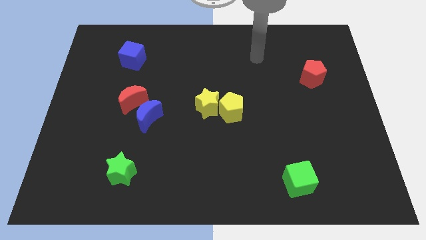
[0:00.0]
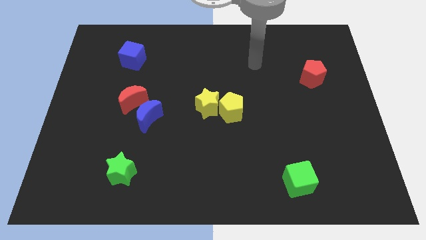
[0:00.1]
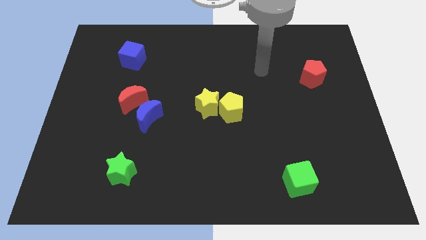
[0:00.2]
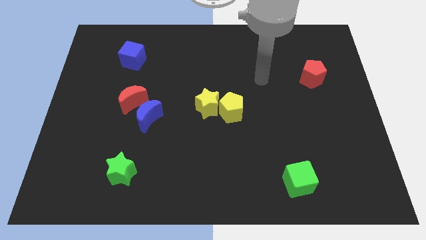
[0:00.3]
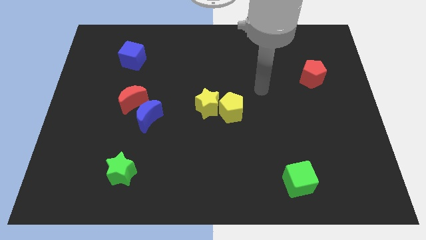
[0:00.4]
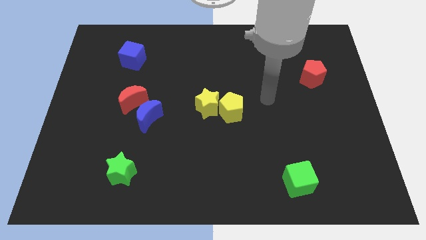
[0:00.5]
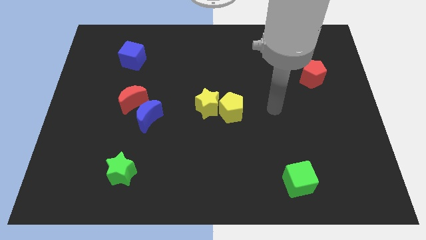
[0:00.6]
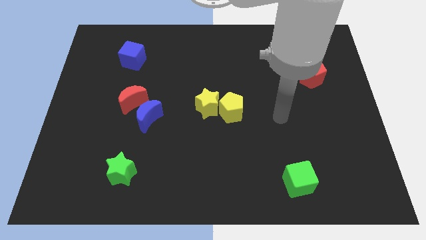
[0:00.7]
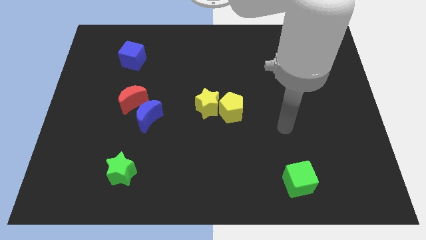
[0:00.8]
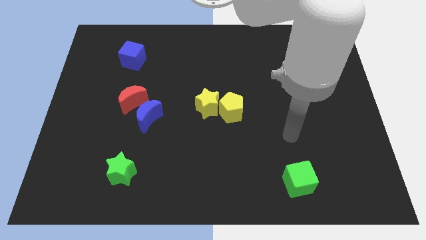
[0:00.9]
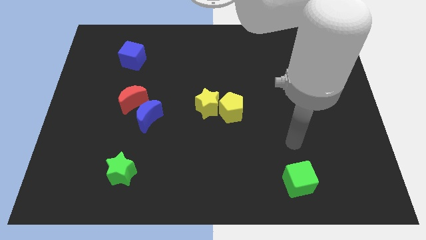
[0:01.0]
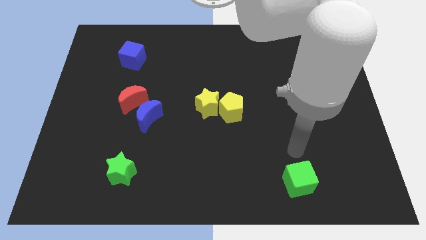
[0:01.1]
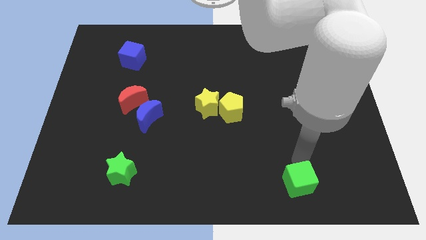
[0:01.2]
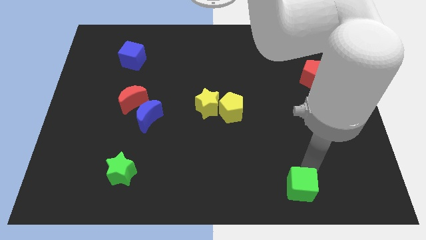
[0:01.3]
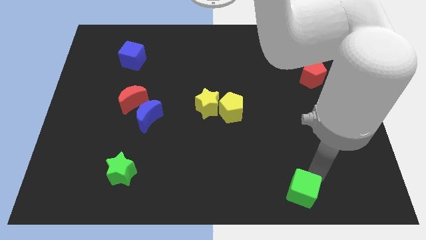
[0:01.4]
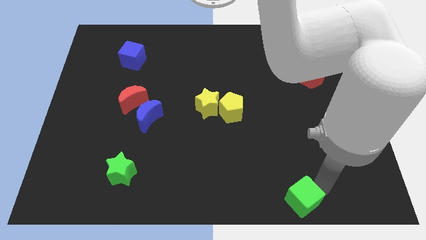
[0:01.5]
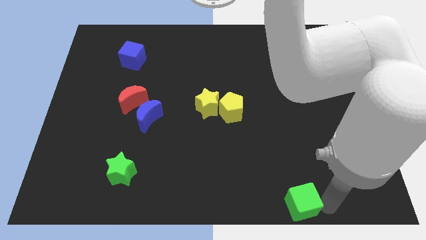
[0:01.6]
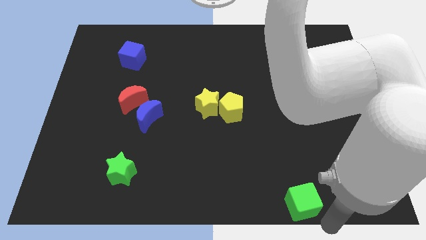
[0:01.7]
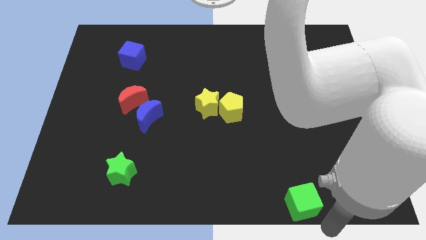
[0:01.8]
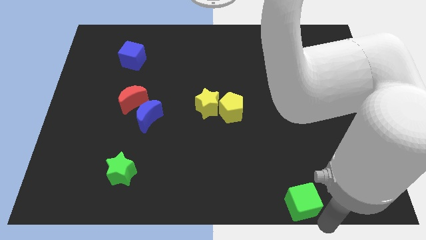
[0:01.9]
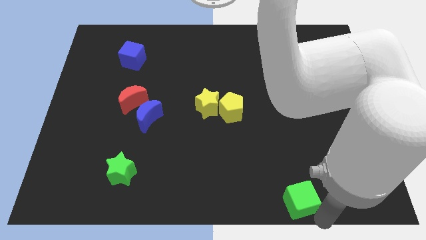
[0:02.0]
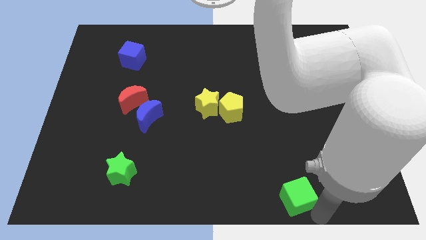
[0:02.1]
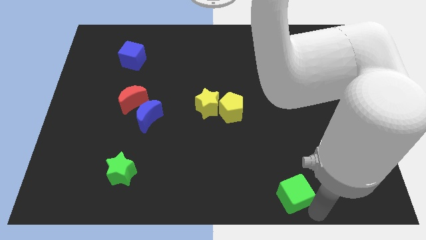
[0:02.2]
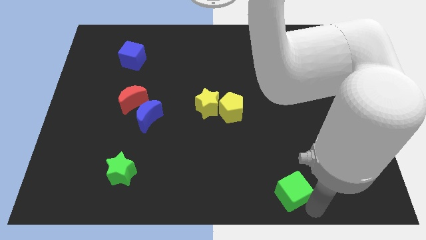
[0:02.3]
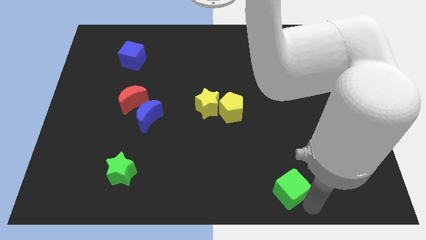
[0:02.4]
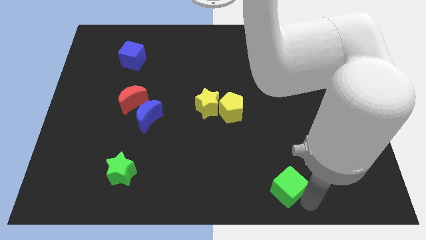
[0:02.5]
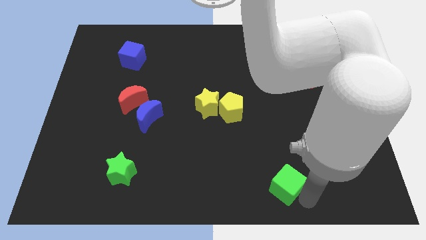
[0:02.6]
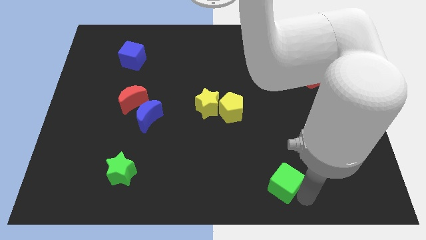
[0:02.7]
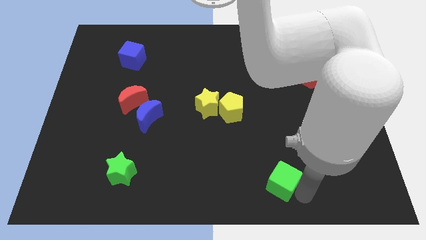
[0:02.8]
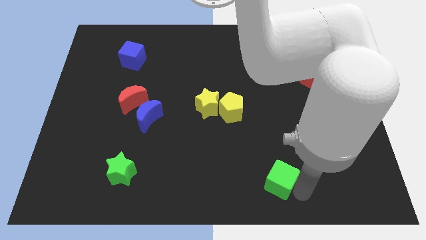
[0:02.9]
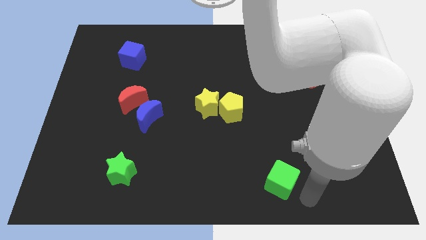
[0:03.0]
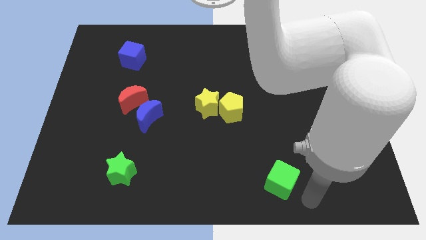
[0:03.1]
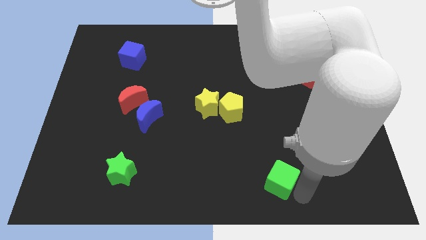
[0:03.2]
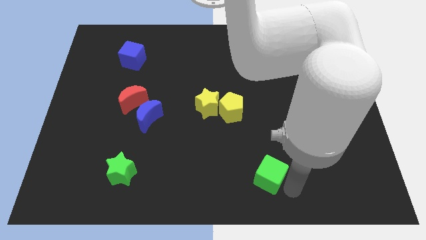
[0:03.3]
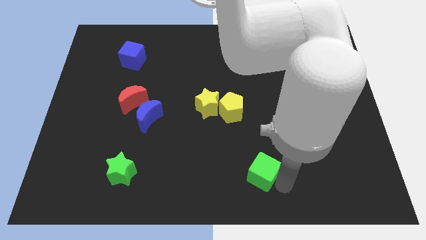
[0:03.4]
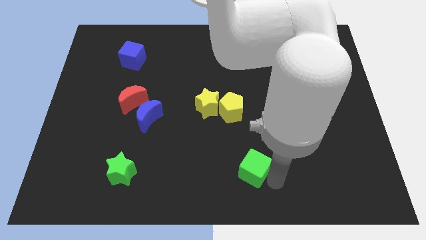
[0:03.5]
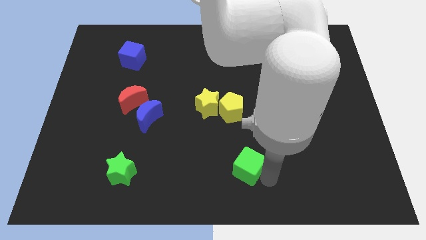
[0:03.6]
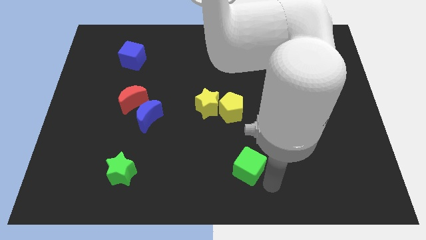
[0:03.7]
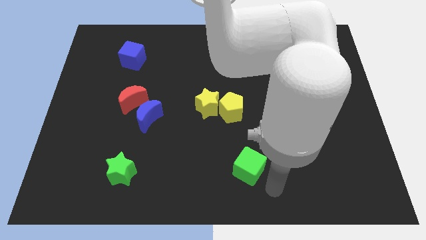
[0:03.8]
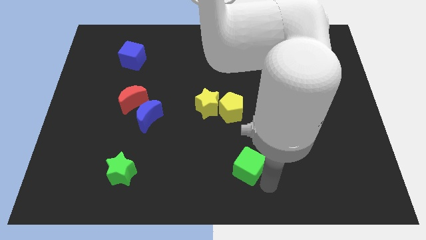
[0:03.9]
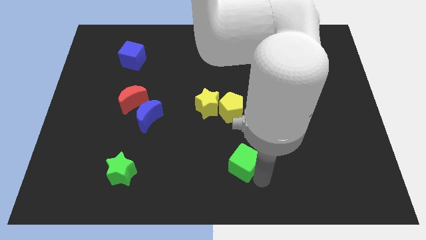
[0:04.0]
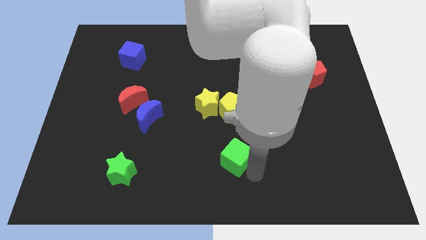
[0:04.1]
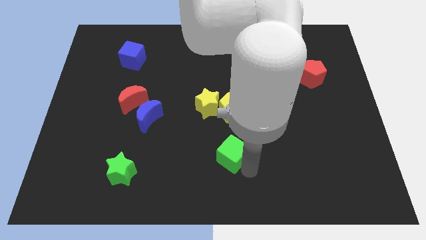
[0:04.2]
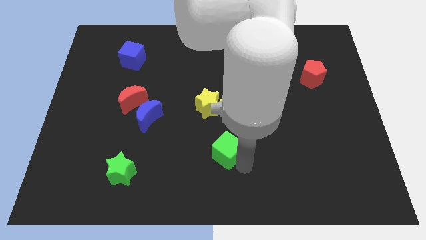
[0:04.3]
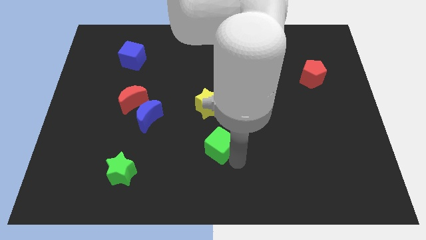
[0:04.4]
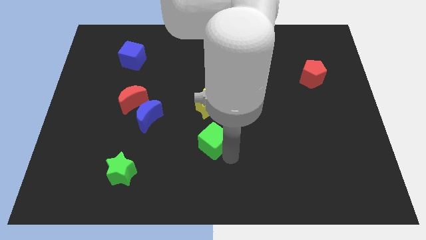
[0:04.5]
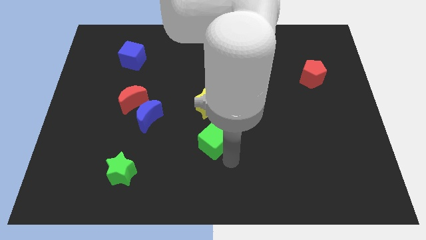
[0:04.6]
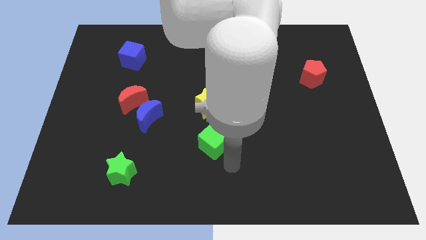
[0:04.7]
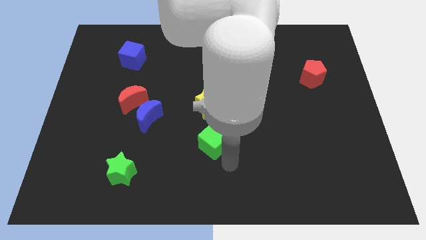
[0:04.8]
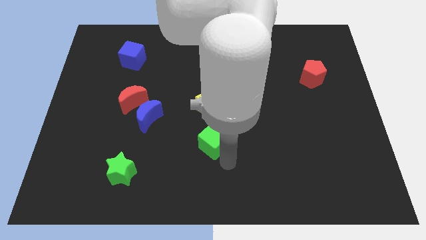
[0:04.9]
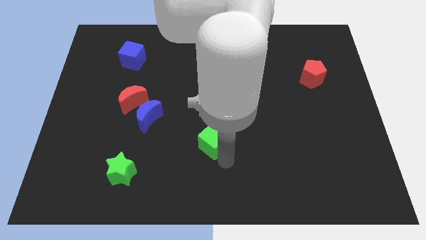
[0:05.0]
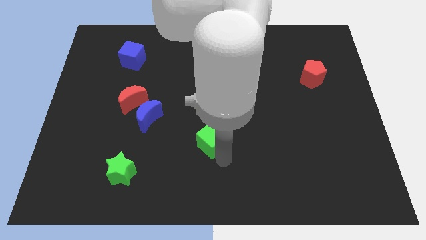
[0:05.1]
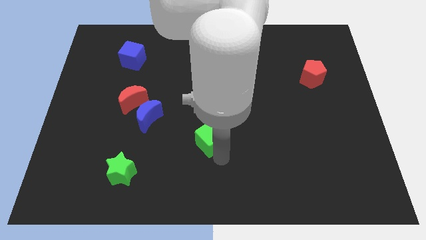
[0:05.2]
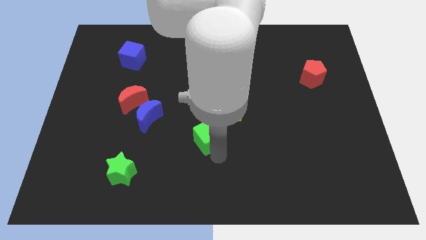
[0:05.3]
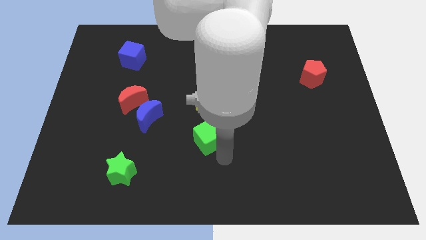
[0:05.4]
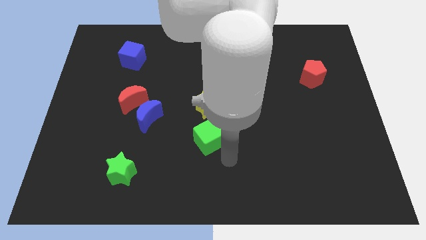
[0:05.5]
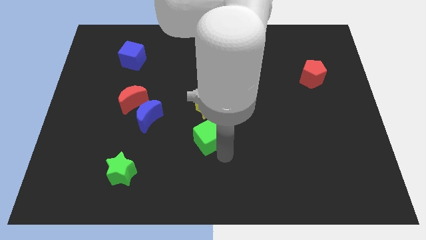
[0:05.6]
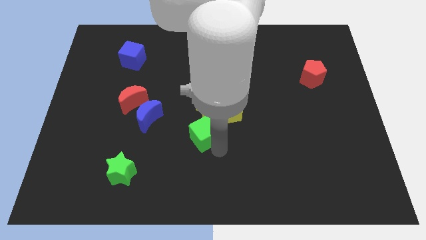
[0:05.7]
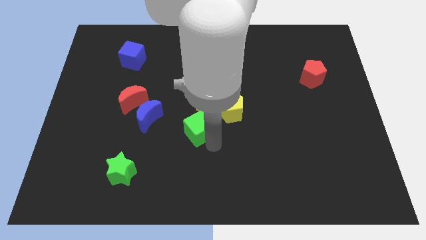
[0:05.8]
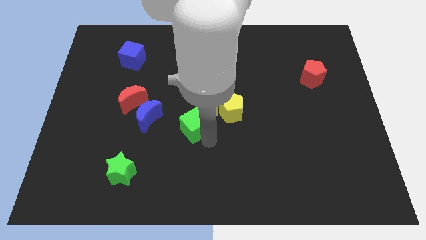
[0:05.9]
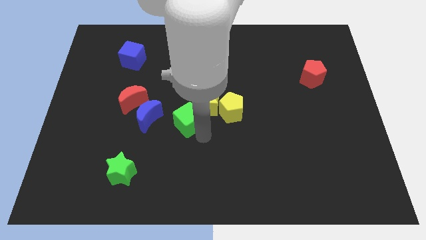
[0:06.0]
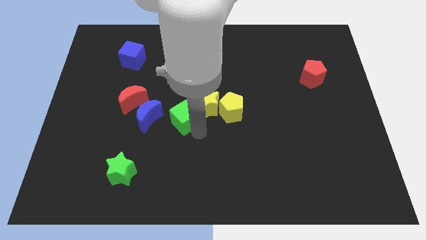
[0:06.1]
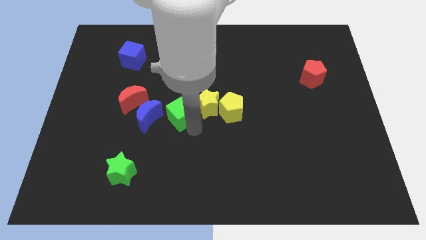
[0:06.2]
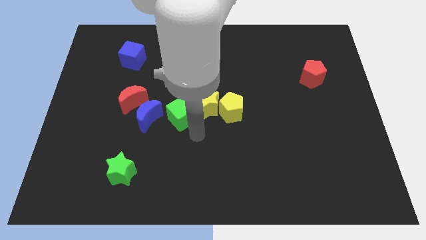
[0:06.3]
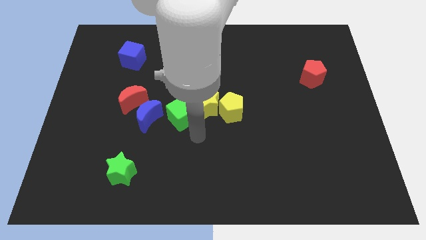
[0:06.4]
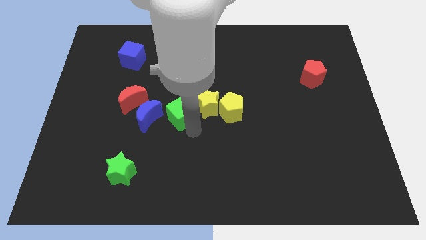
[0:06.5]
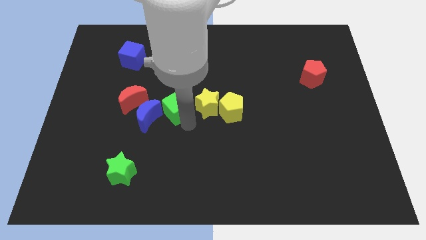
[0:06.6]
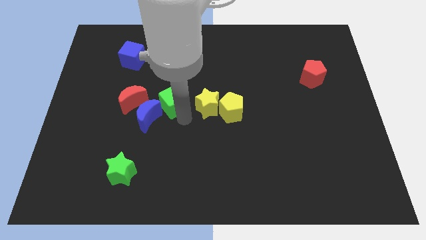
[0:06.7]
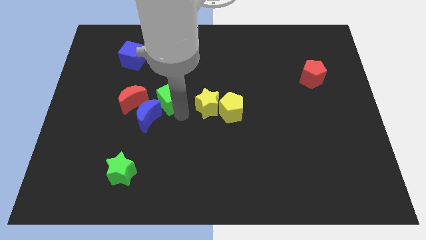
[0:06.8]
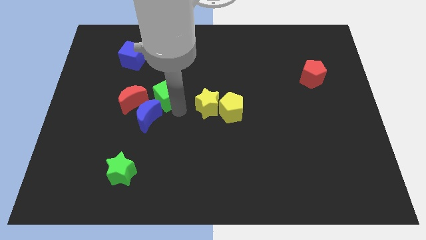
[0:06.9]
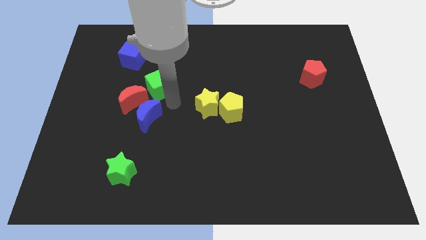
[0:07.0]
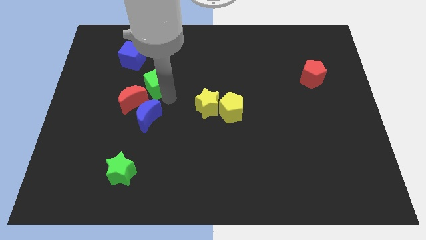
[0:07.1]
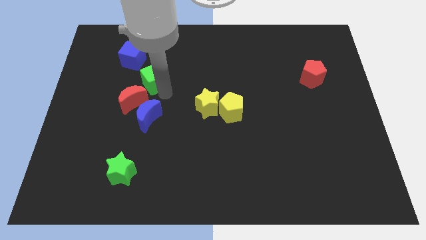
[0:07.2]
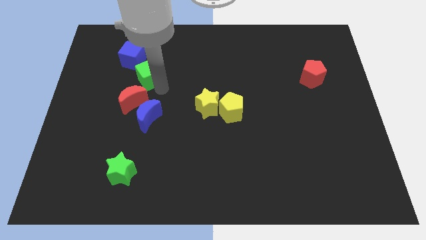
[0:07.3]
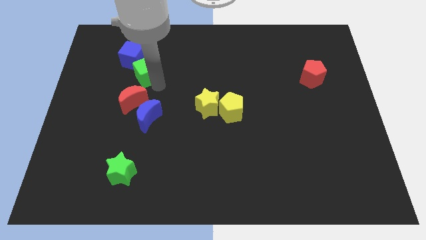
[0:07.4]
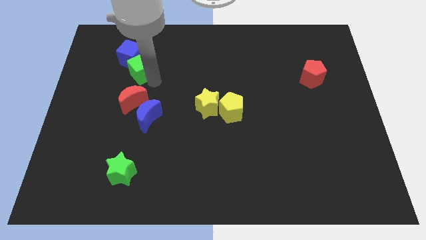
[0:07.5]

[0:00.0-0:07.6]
put the green cube next to the blue cube

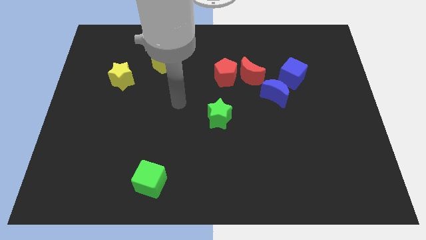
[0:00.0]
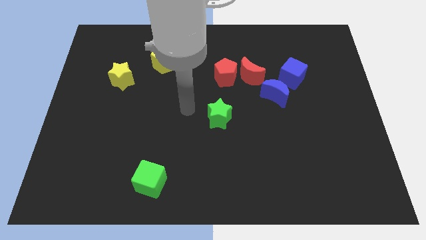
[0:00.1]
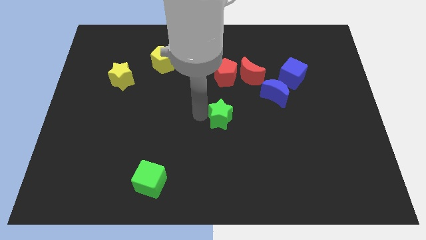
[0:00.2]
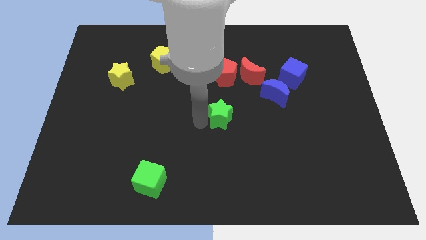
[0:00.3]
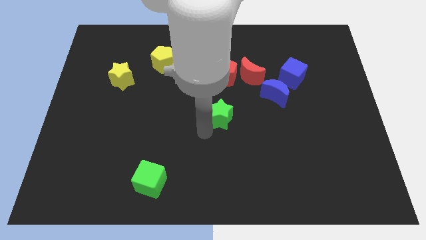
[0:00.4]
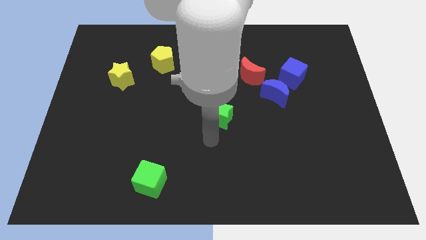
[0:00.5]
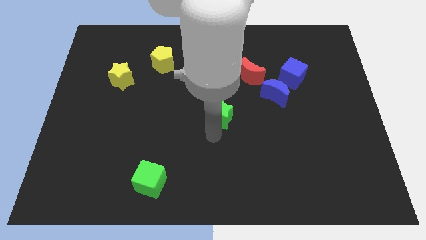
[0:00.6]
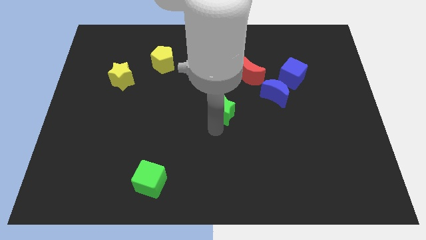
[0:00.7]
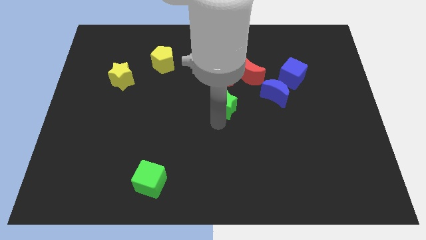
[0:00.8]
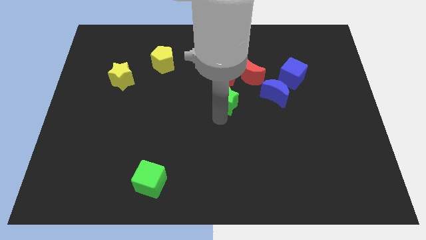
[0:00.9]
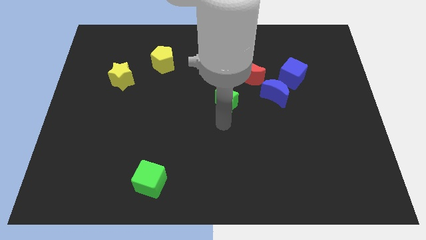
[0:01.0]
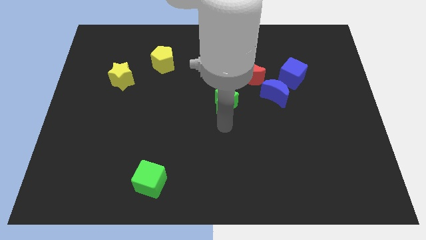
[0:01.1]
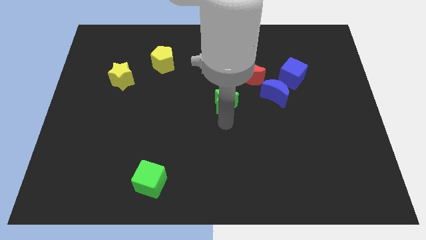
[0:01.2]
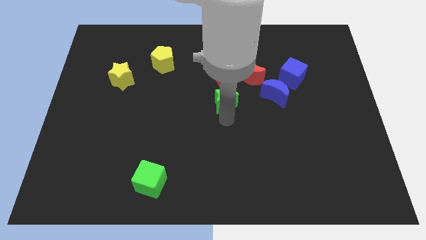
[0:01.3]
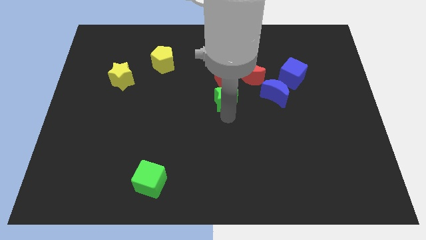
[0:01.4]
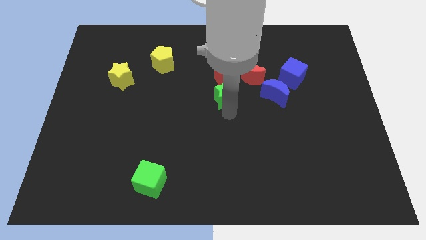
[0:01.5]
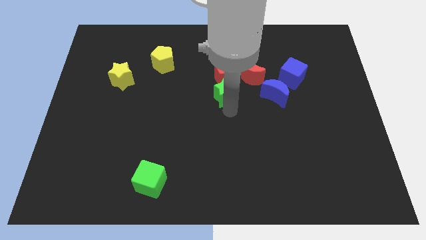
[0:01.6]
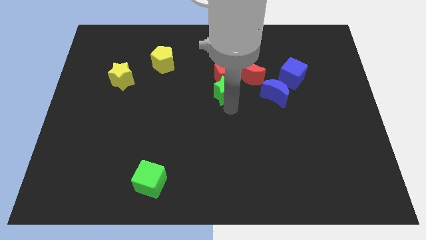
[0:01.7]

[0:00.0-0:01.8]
slide the green star next to the red pentagon
